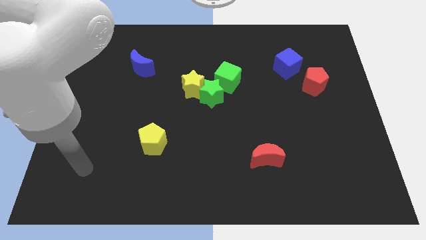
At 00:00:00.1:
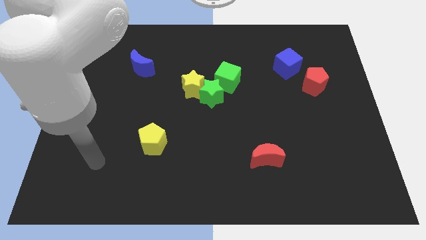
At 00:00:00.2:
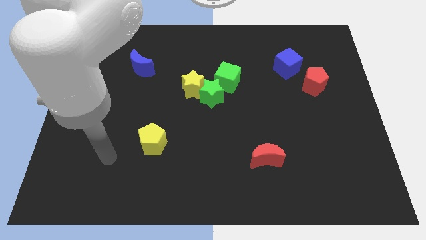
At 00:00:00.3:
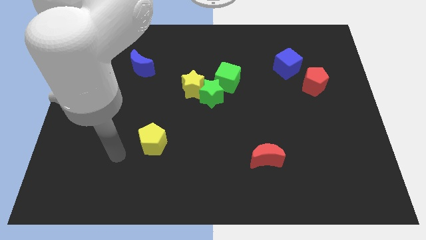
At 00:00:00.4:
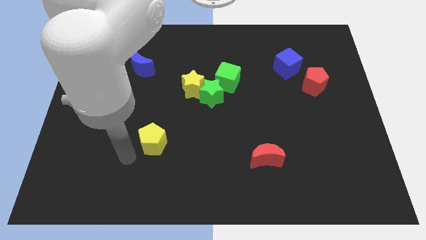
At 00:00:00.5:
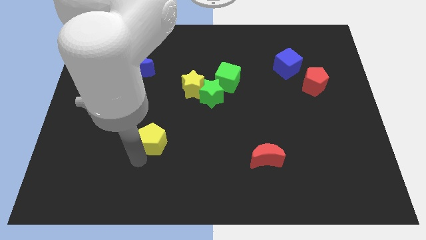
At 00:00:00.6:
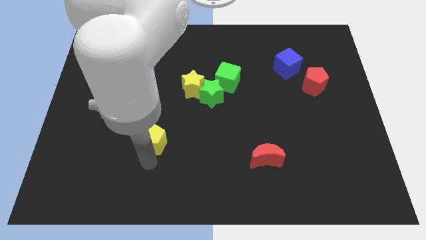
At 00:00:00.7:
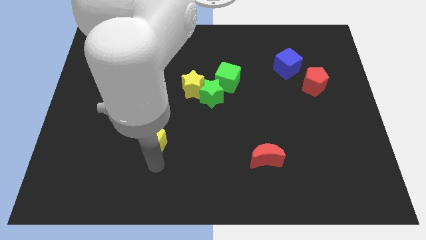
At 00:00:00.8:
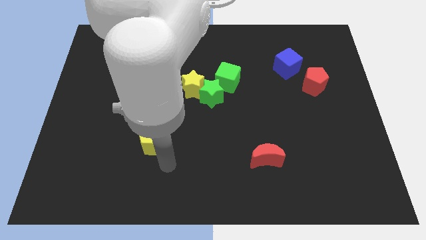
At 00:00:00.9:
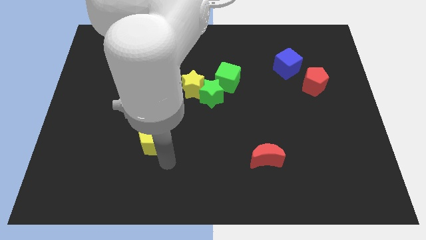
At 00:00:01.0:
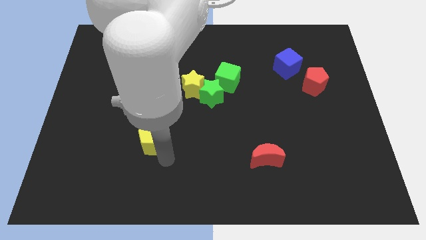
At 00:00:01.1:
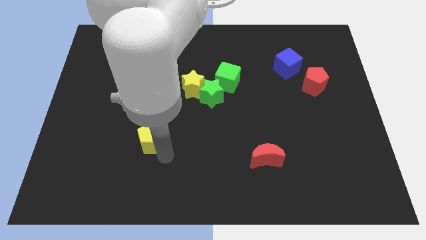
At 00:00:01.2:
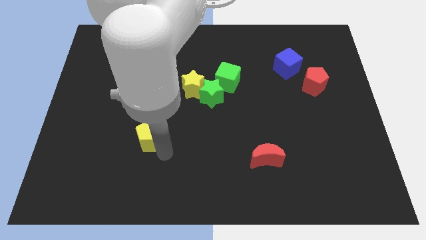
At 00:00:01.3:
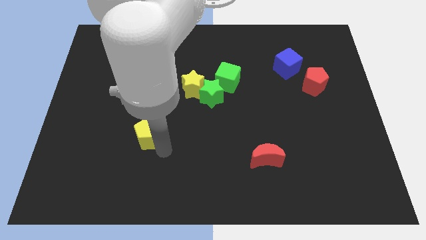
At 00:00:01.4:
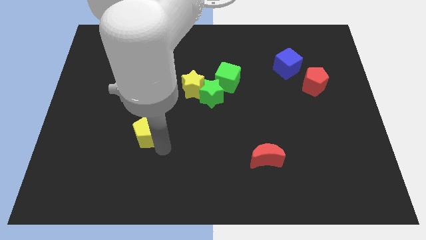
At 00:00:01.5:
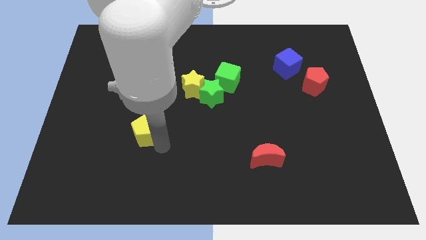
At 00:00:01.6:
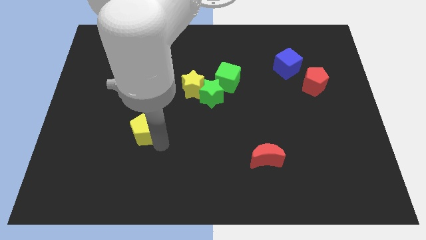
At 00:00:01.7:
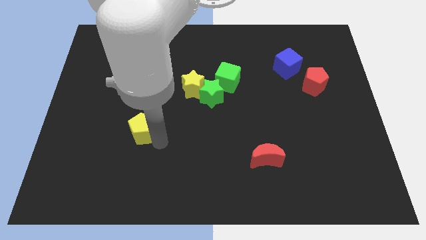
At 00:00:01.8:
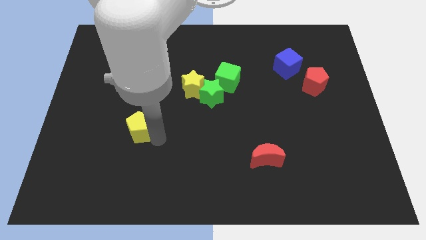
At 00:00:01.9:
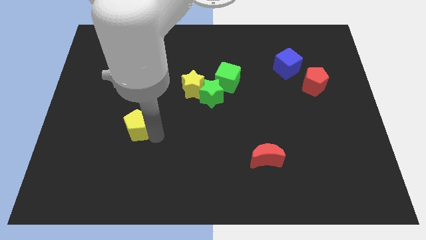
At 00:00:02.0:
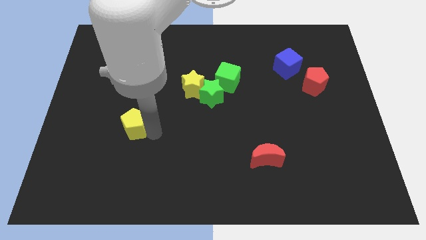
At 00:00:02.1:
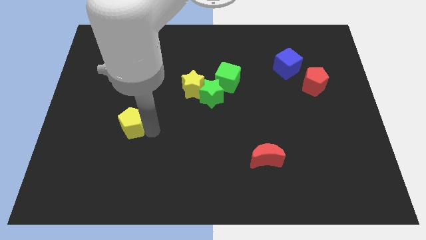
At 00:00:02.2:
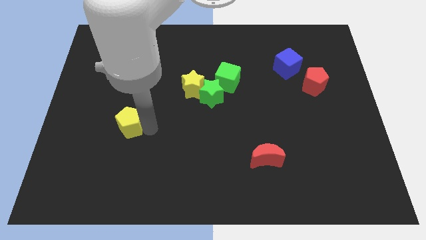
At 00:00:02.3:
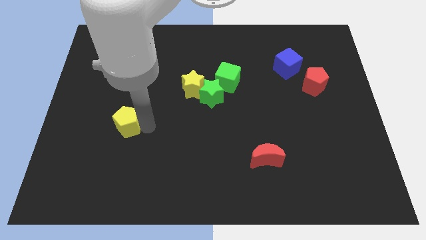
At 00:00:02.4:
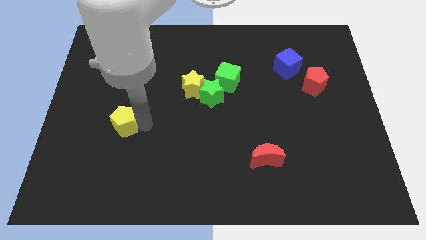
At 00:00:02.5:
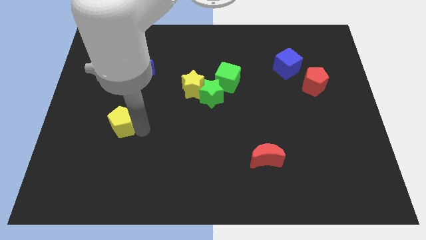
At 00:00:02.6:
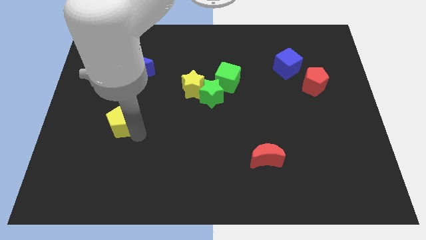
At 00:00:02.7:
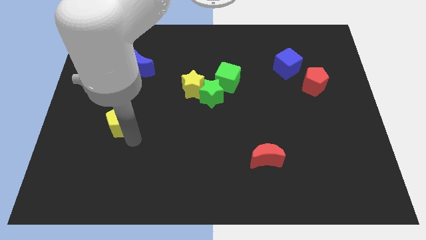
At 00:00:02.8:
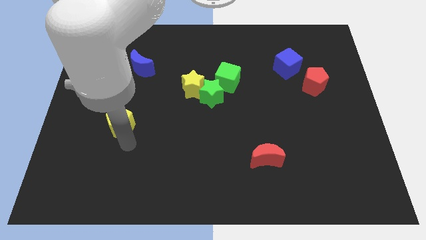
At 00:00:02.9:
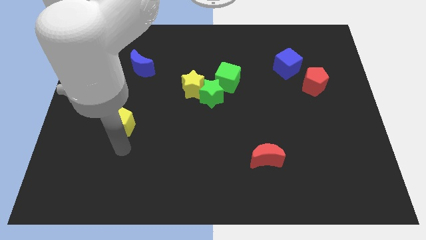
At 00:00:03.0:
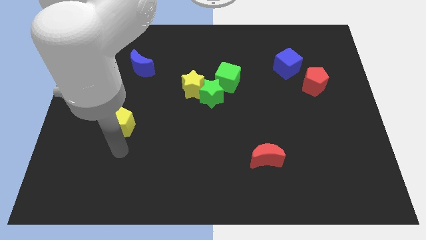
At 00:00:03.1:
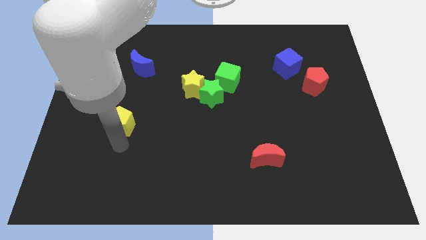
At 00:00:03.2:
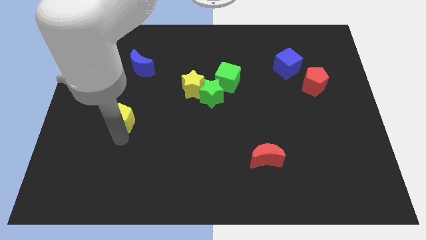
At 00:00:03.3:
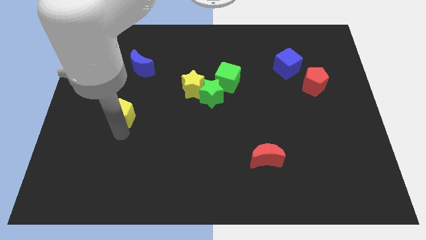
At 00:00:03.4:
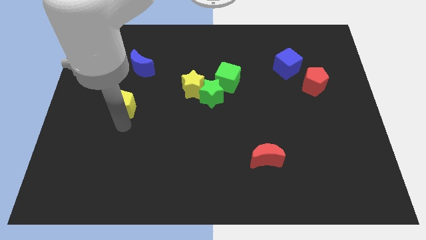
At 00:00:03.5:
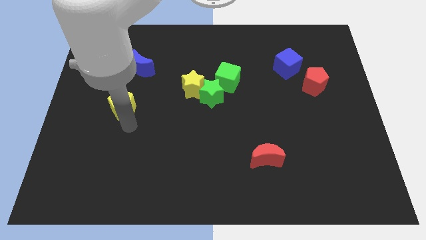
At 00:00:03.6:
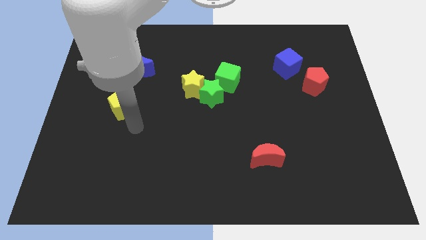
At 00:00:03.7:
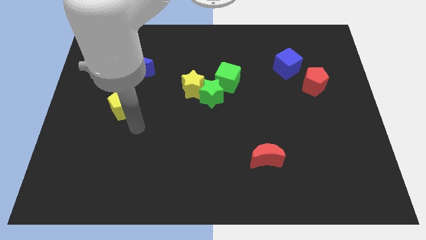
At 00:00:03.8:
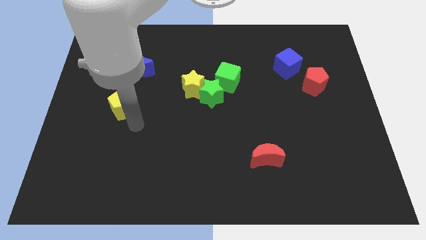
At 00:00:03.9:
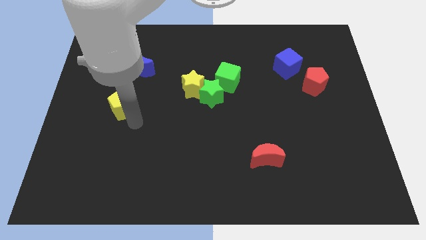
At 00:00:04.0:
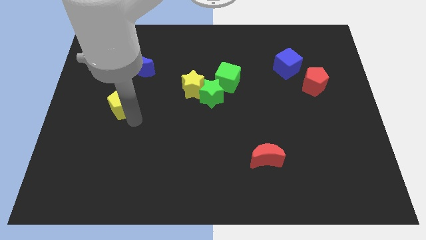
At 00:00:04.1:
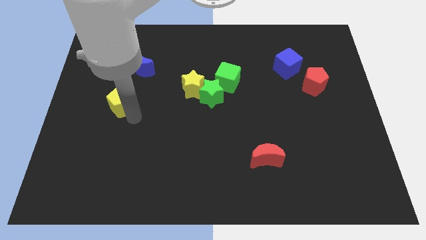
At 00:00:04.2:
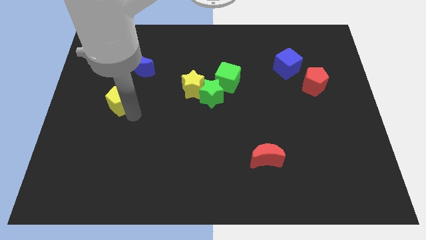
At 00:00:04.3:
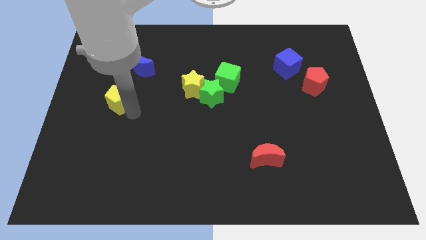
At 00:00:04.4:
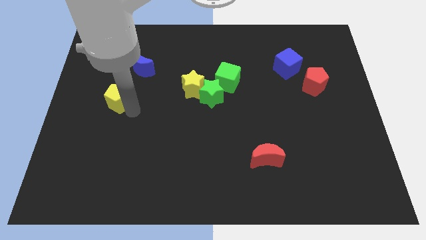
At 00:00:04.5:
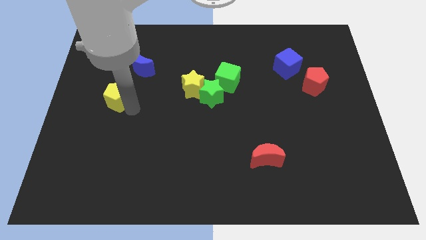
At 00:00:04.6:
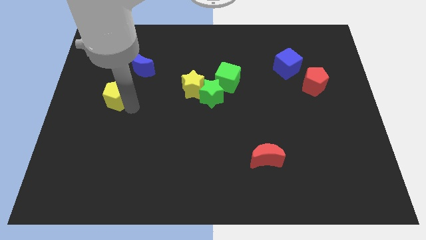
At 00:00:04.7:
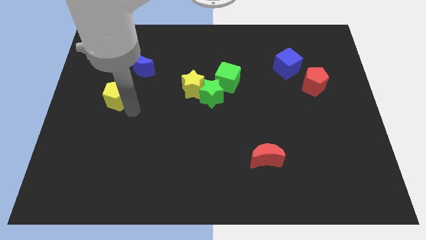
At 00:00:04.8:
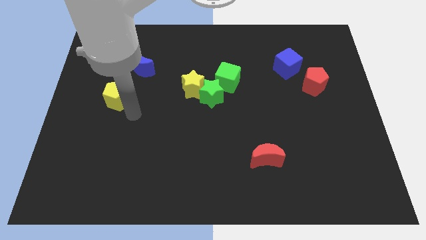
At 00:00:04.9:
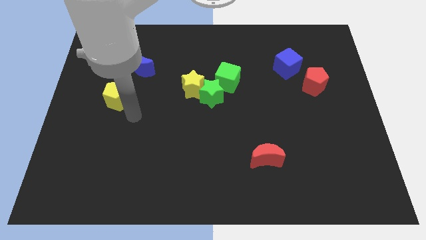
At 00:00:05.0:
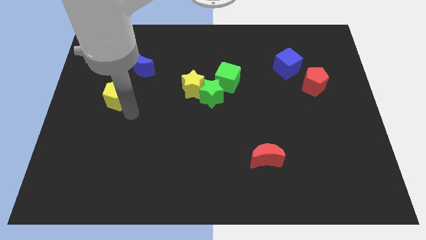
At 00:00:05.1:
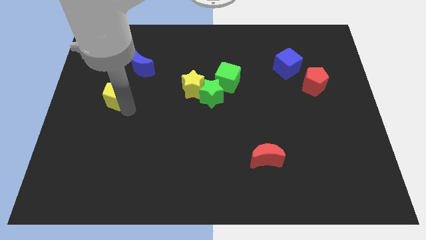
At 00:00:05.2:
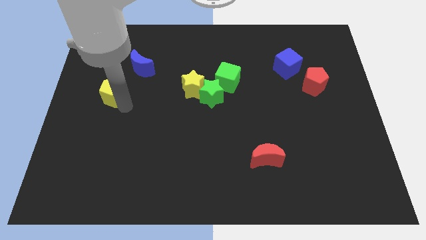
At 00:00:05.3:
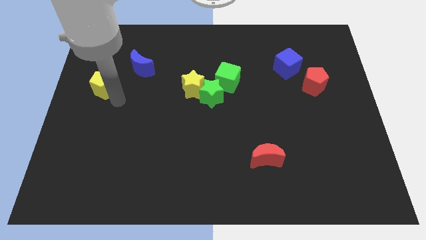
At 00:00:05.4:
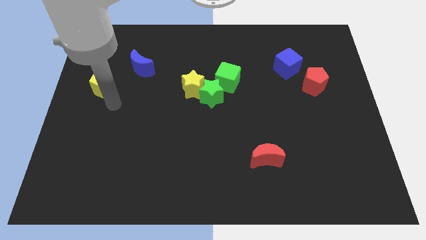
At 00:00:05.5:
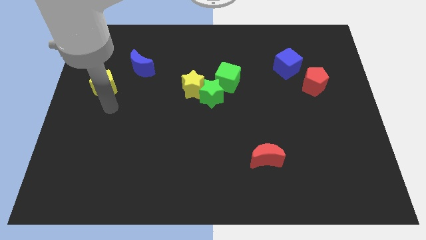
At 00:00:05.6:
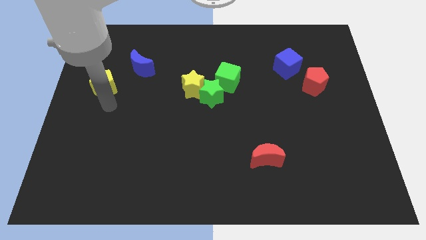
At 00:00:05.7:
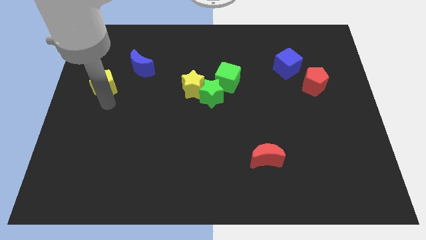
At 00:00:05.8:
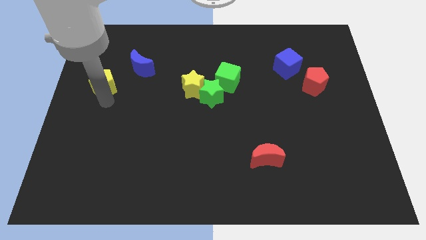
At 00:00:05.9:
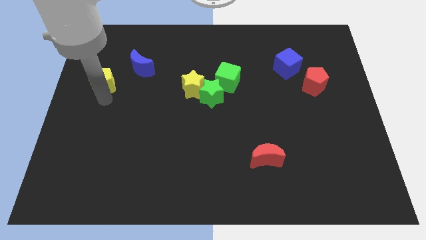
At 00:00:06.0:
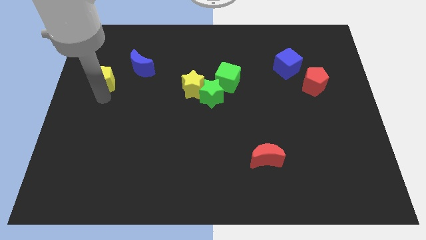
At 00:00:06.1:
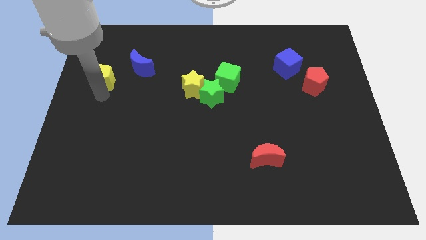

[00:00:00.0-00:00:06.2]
slide the yellow pentagon to the left side of the blue moon

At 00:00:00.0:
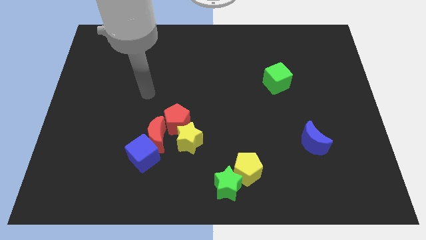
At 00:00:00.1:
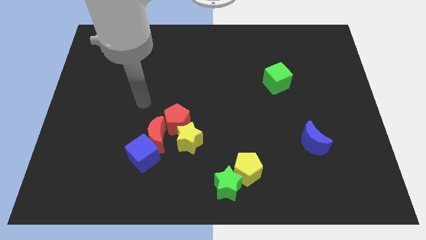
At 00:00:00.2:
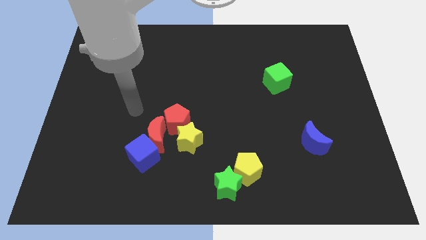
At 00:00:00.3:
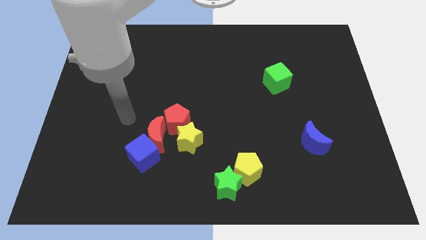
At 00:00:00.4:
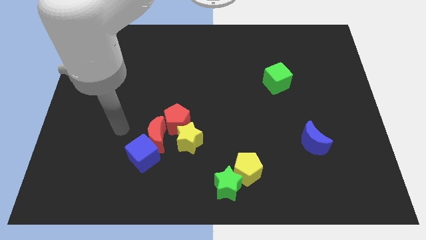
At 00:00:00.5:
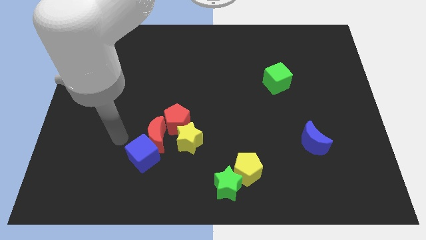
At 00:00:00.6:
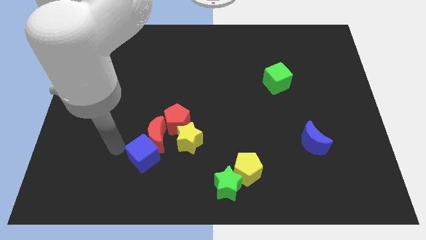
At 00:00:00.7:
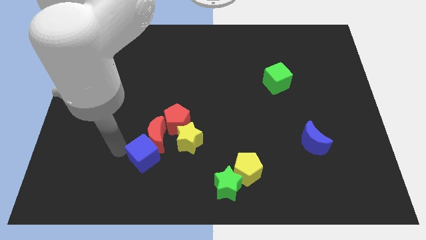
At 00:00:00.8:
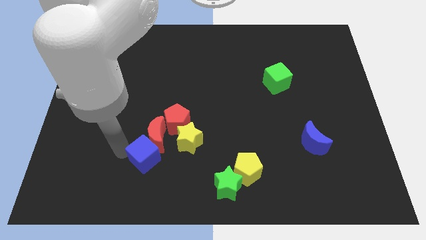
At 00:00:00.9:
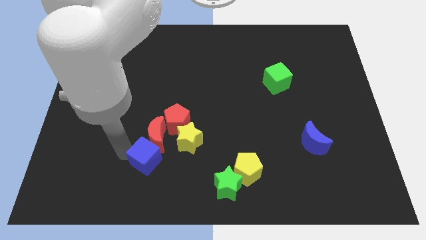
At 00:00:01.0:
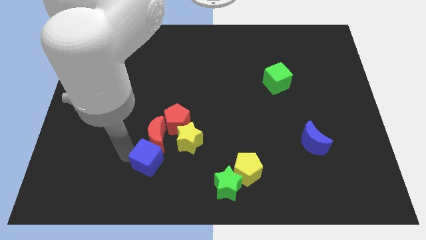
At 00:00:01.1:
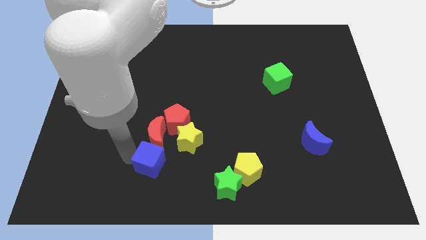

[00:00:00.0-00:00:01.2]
push the blue cube to the bottom of the red pentagon
